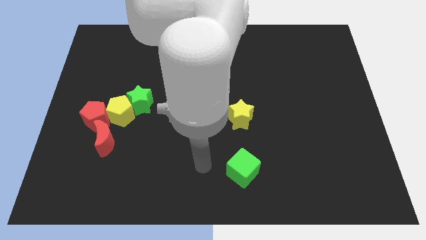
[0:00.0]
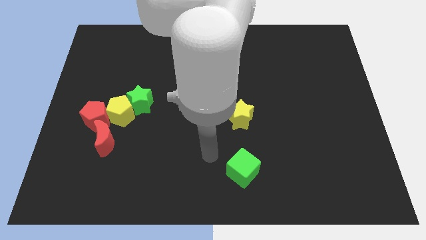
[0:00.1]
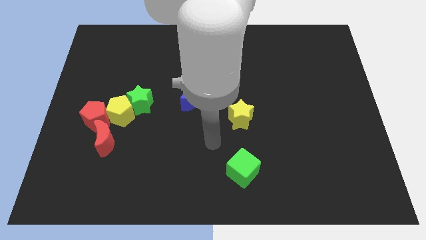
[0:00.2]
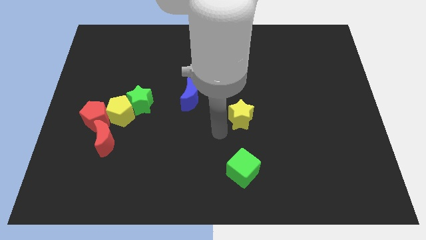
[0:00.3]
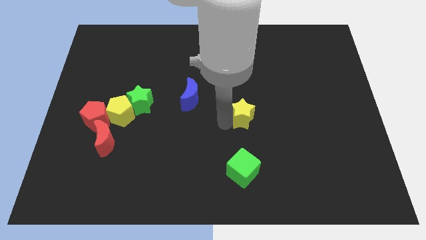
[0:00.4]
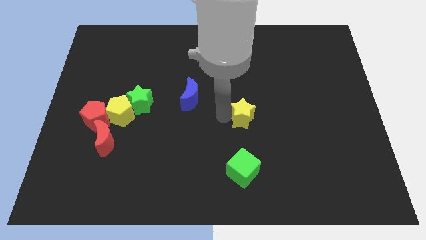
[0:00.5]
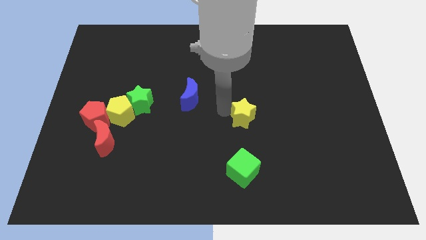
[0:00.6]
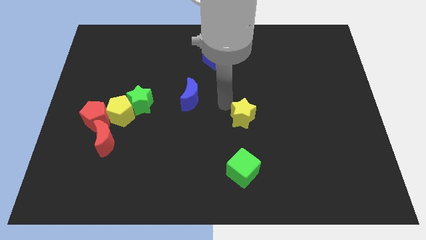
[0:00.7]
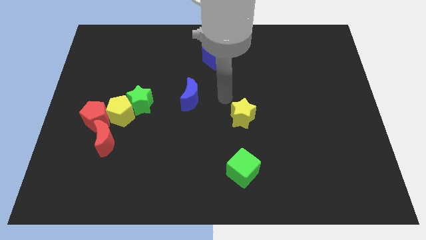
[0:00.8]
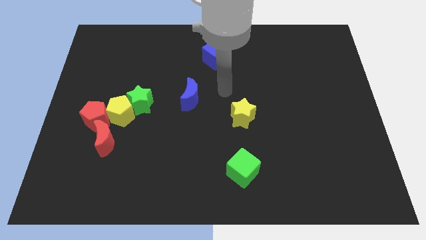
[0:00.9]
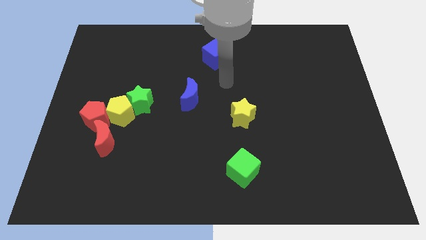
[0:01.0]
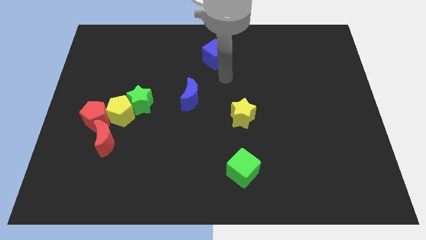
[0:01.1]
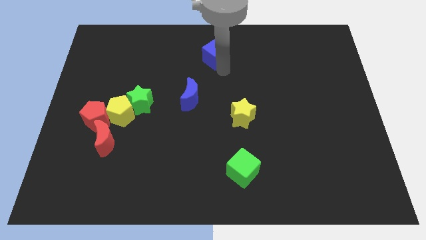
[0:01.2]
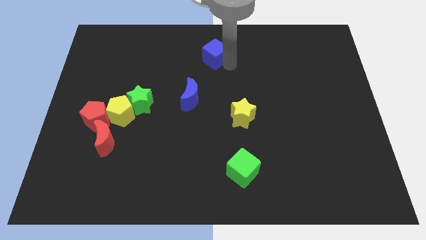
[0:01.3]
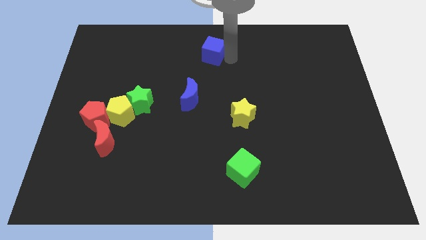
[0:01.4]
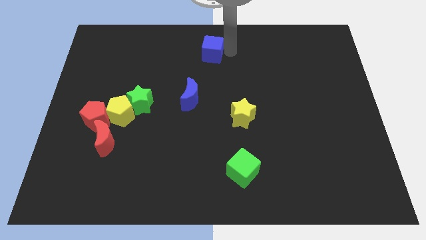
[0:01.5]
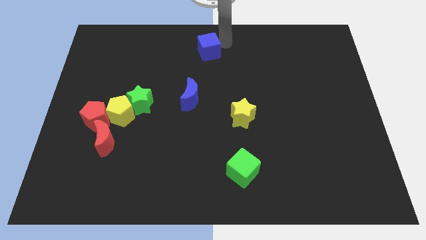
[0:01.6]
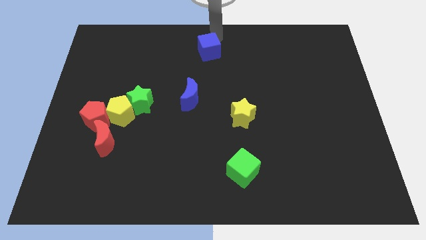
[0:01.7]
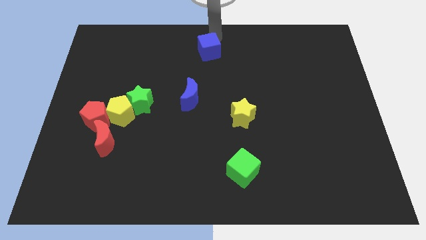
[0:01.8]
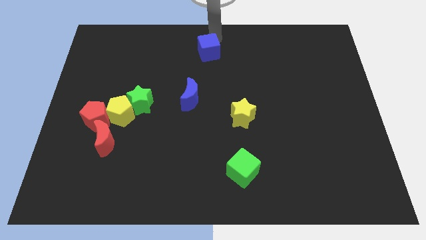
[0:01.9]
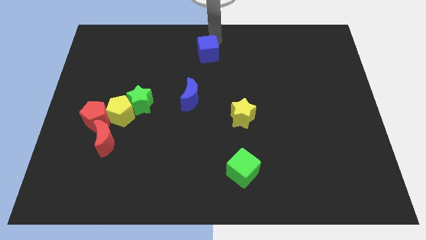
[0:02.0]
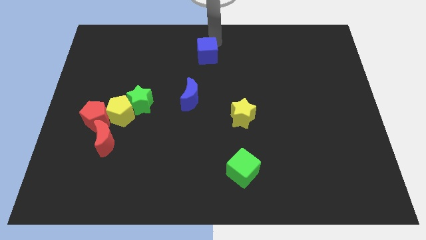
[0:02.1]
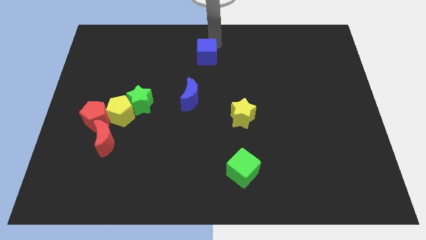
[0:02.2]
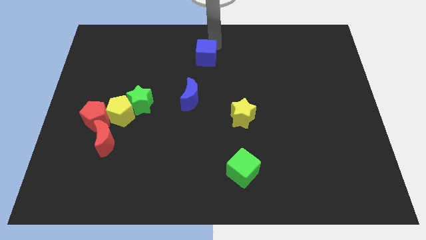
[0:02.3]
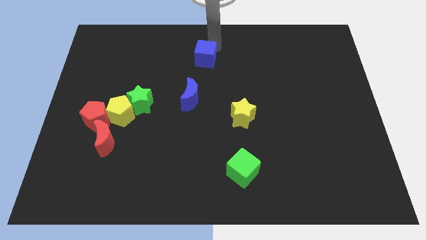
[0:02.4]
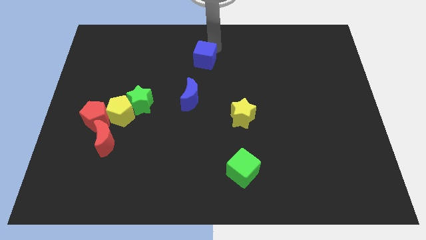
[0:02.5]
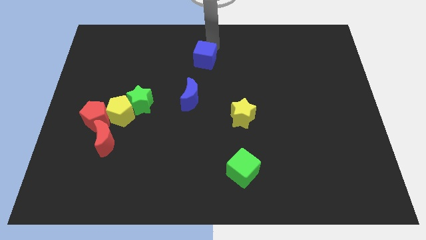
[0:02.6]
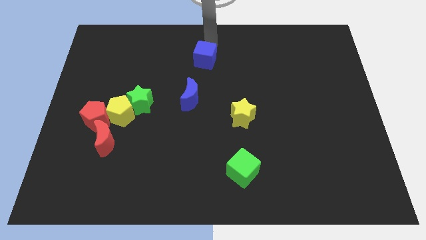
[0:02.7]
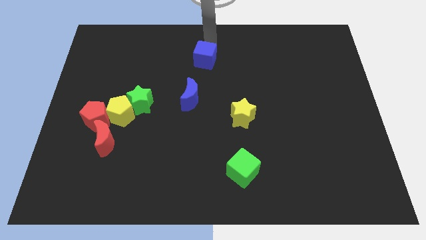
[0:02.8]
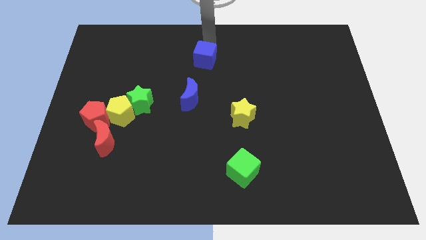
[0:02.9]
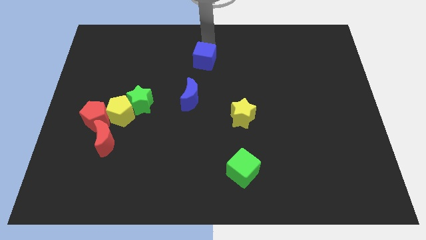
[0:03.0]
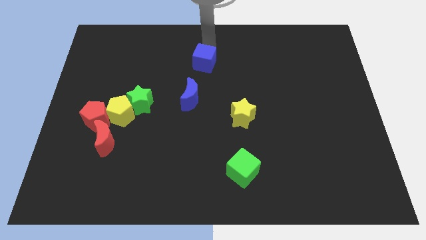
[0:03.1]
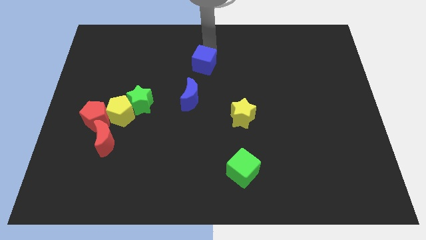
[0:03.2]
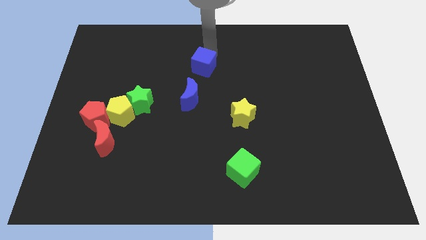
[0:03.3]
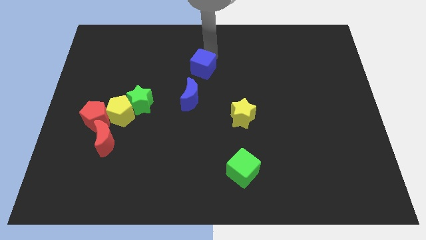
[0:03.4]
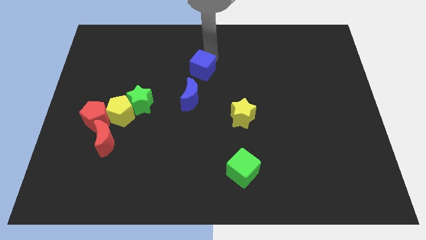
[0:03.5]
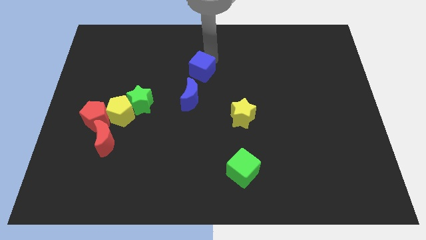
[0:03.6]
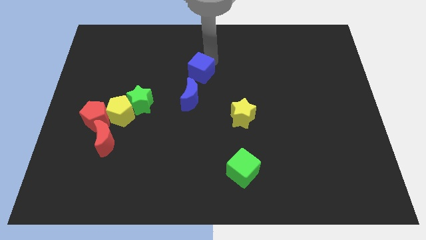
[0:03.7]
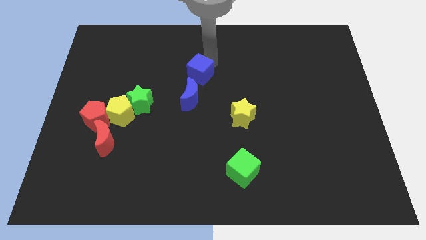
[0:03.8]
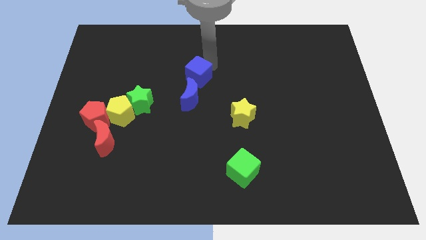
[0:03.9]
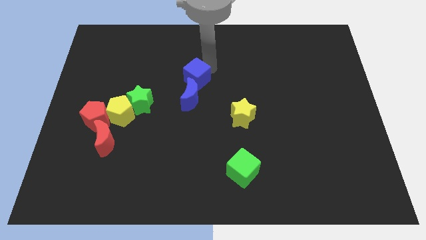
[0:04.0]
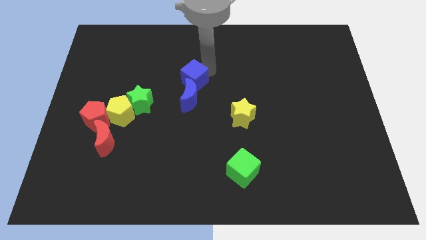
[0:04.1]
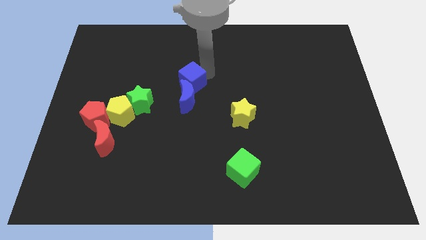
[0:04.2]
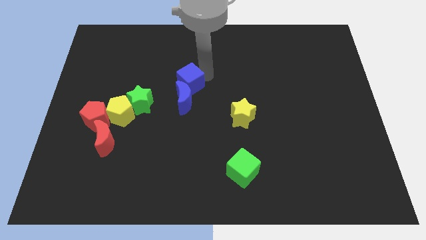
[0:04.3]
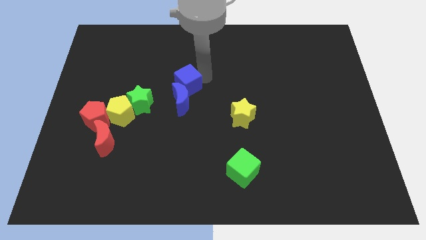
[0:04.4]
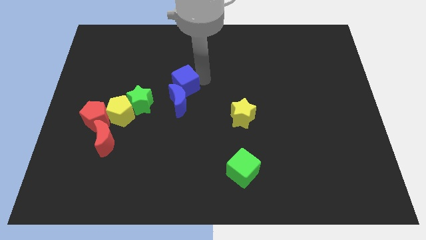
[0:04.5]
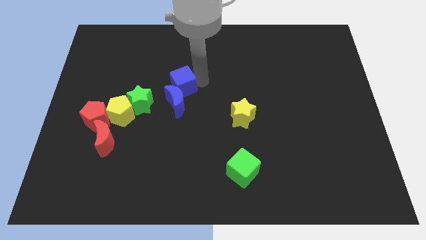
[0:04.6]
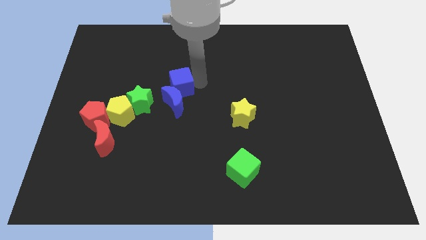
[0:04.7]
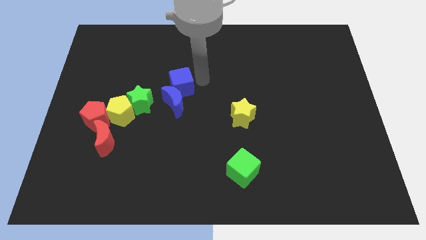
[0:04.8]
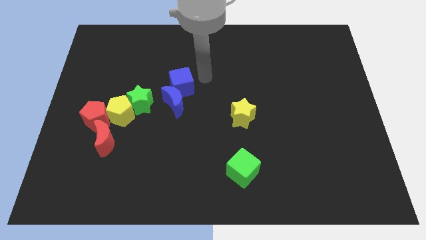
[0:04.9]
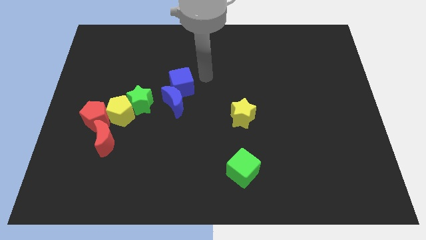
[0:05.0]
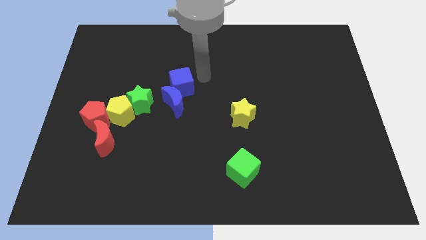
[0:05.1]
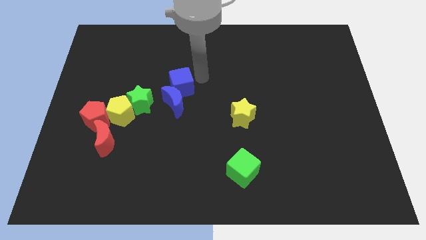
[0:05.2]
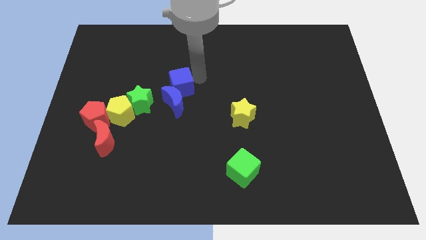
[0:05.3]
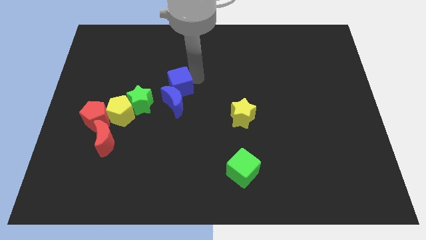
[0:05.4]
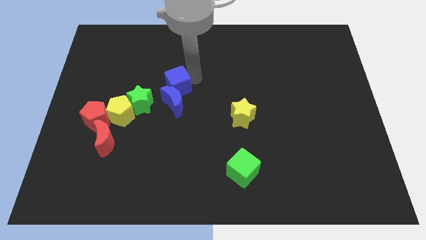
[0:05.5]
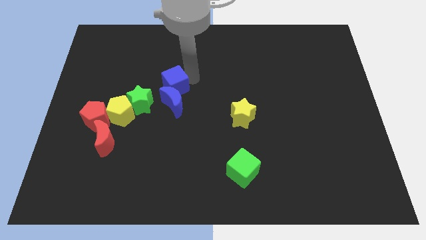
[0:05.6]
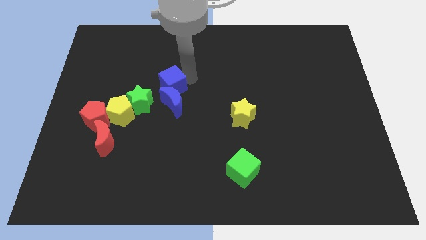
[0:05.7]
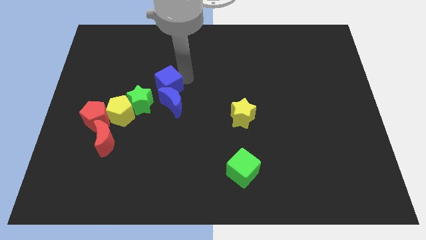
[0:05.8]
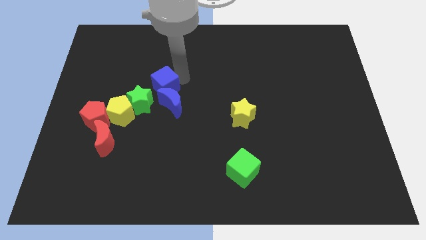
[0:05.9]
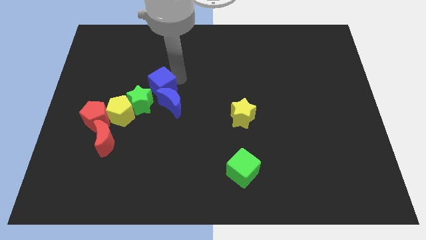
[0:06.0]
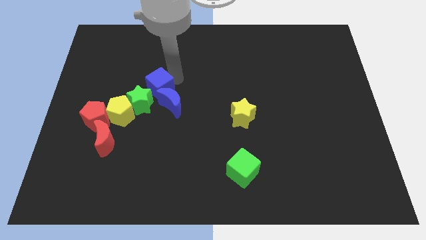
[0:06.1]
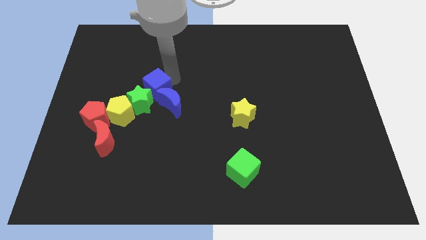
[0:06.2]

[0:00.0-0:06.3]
slide the blue cube towards the green star

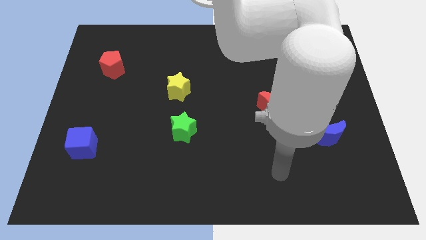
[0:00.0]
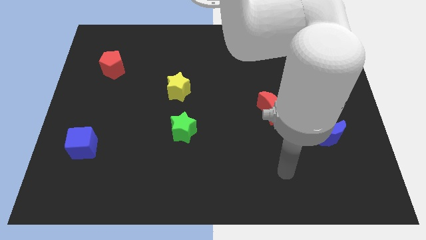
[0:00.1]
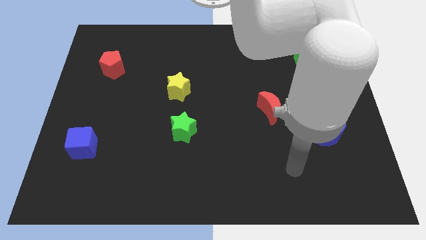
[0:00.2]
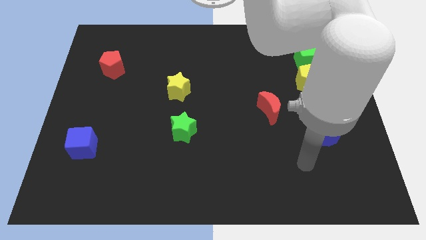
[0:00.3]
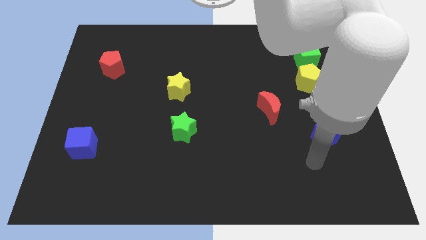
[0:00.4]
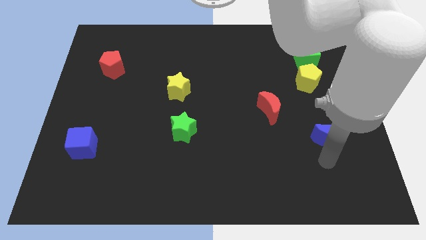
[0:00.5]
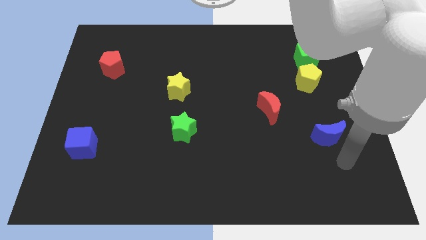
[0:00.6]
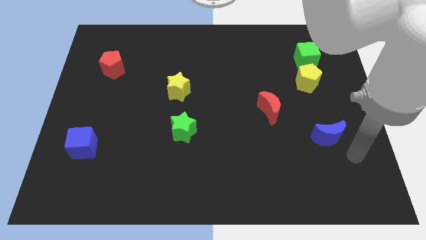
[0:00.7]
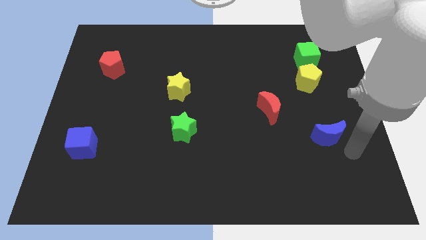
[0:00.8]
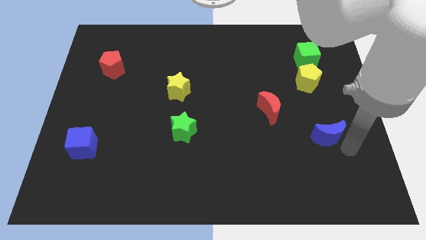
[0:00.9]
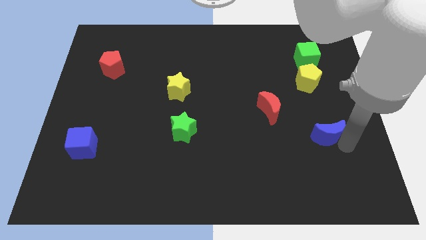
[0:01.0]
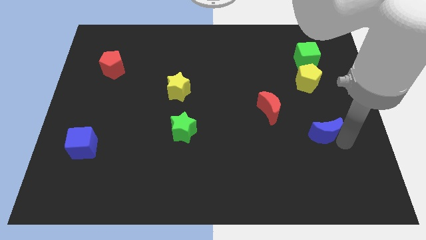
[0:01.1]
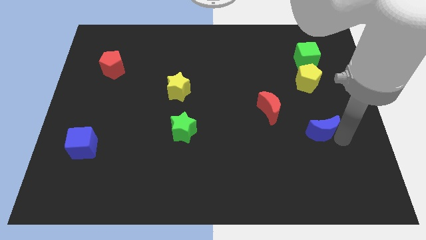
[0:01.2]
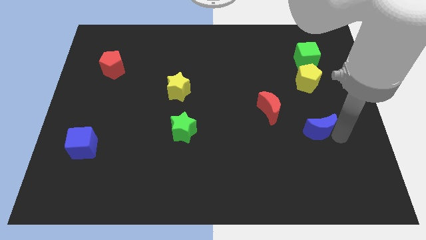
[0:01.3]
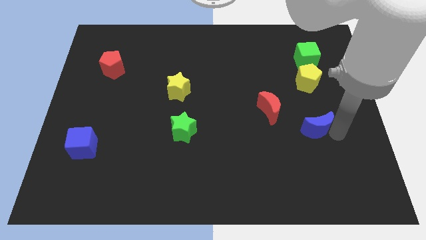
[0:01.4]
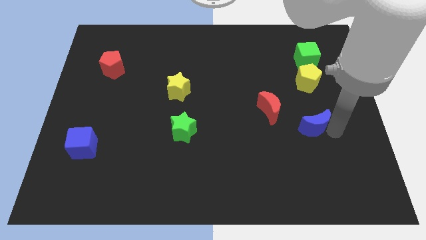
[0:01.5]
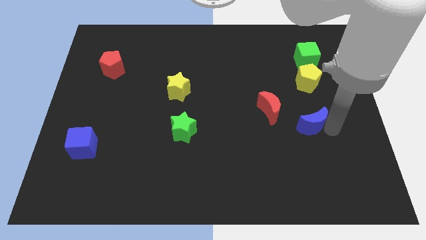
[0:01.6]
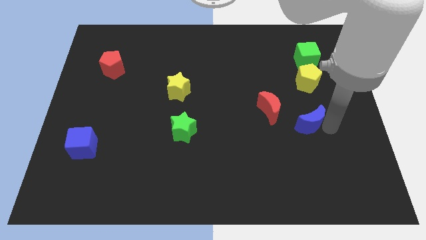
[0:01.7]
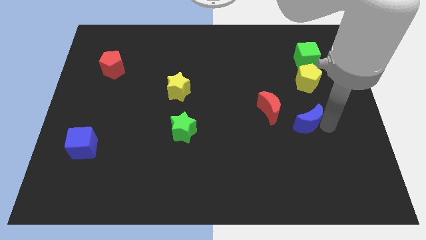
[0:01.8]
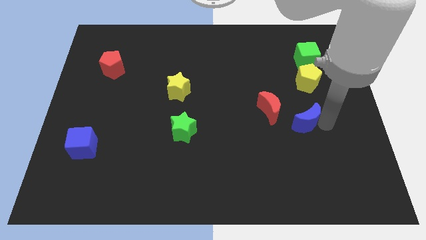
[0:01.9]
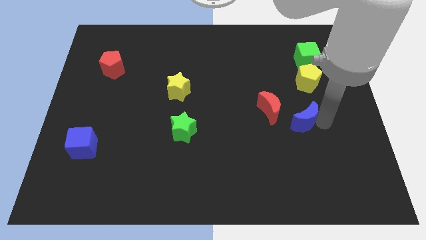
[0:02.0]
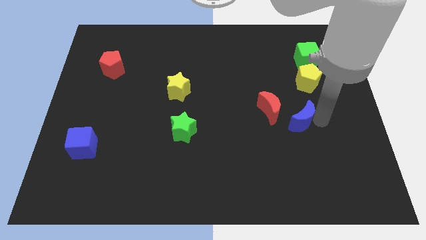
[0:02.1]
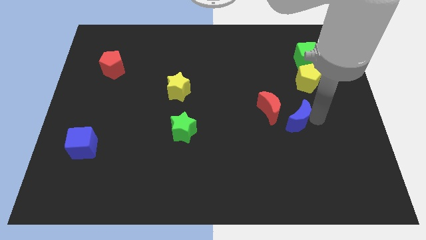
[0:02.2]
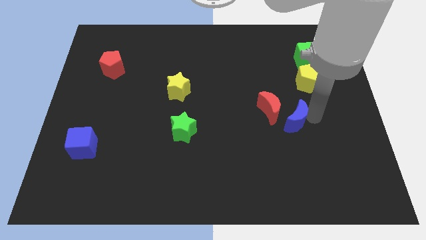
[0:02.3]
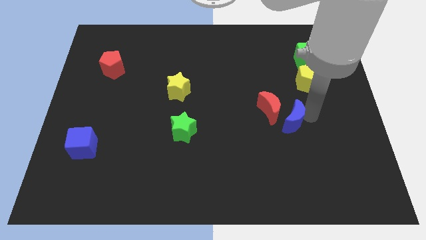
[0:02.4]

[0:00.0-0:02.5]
slide the blue moon next to the red moon
